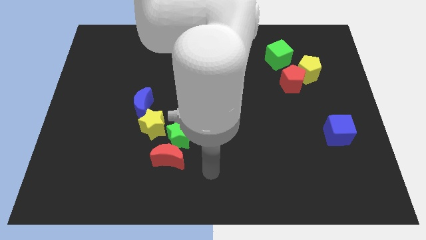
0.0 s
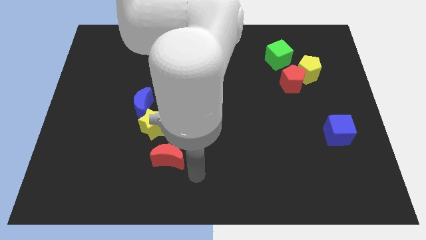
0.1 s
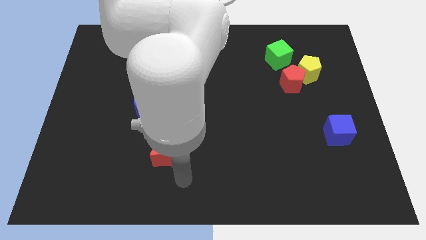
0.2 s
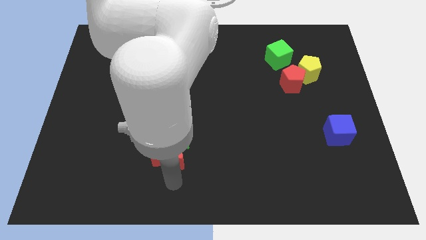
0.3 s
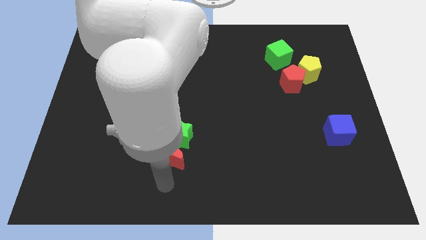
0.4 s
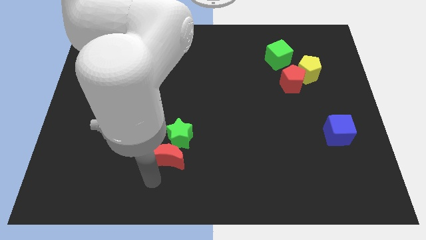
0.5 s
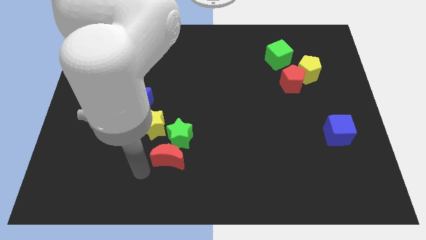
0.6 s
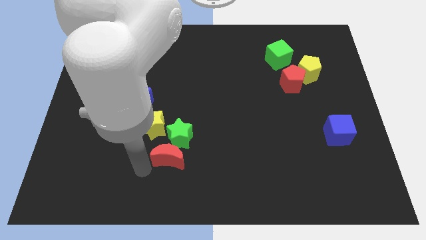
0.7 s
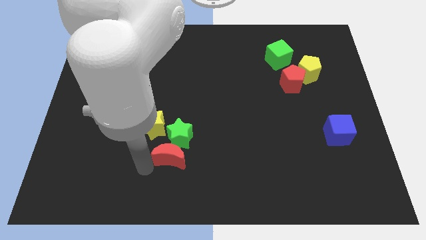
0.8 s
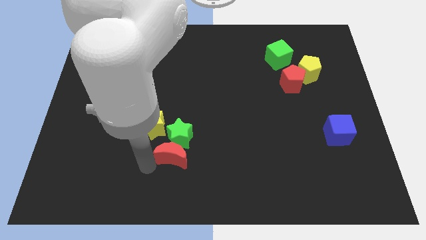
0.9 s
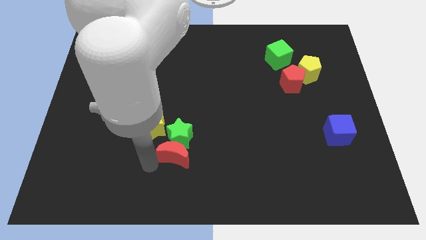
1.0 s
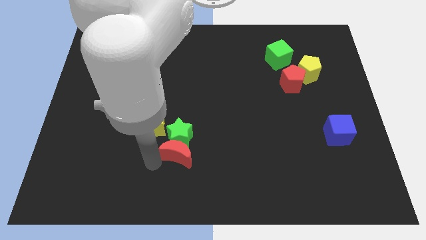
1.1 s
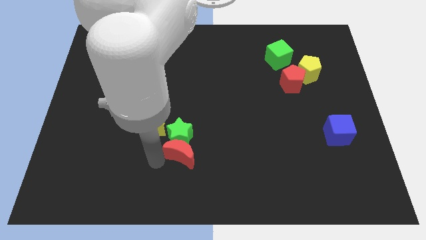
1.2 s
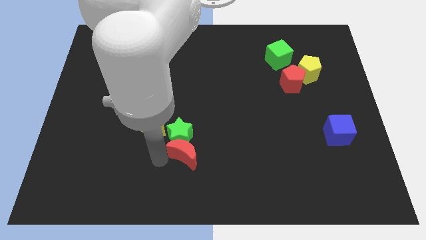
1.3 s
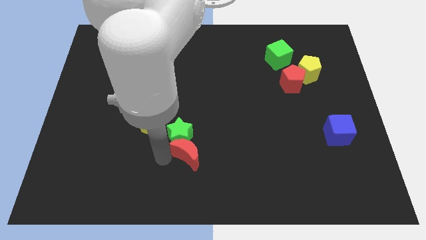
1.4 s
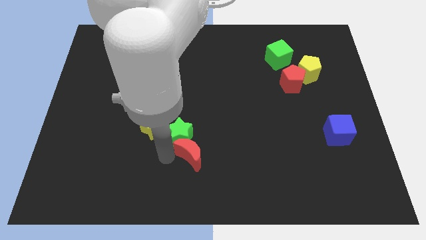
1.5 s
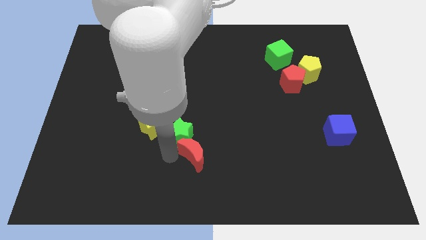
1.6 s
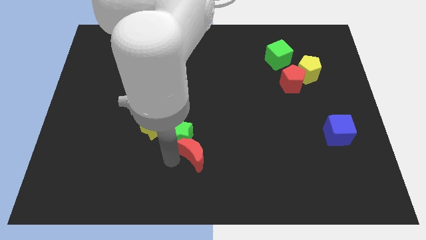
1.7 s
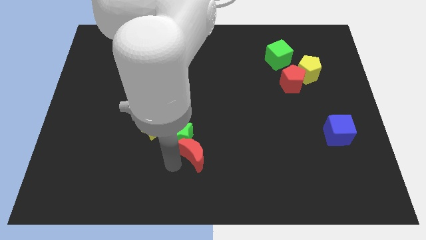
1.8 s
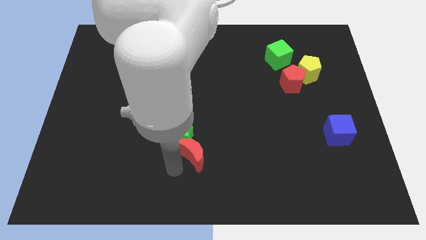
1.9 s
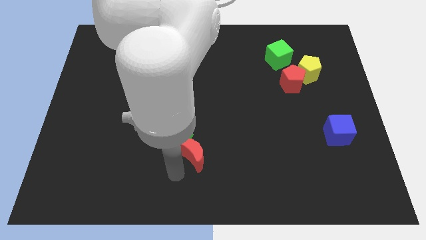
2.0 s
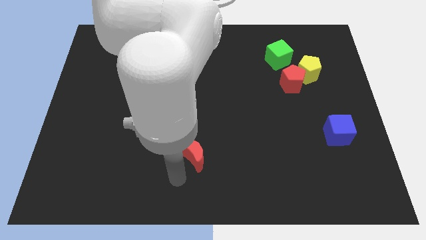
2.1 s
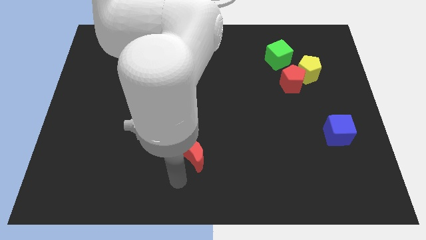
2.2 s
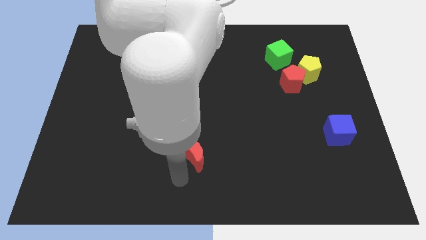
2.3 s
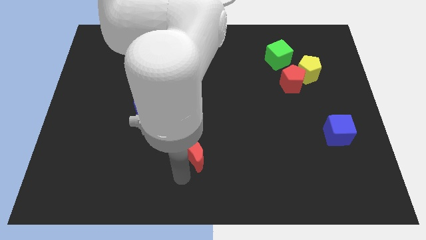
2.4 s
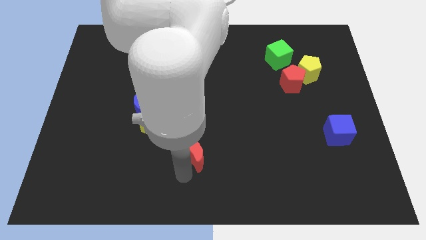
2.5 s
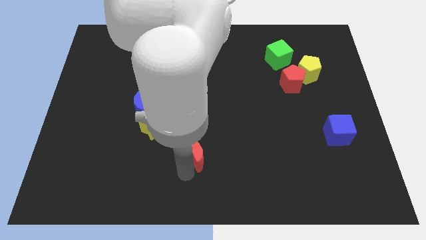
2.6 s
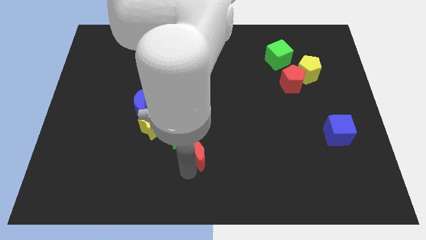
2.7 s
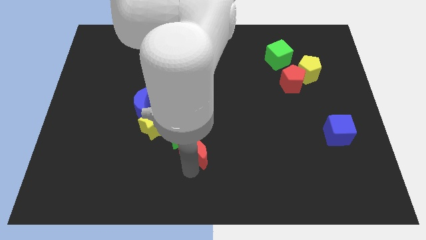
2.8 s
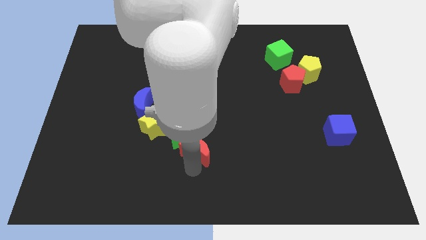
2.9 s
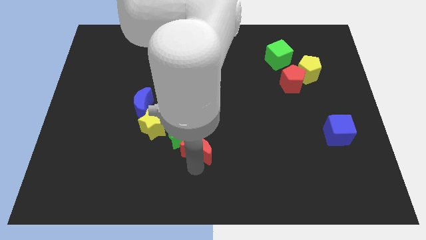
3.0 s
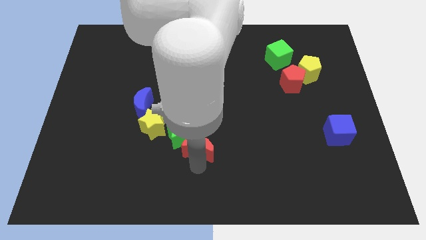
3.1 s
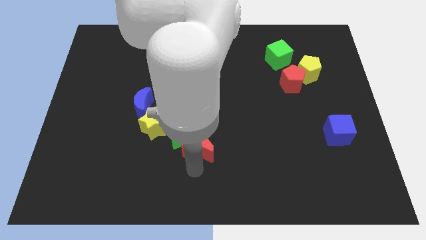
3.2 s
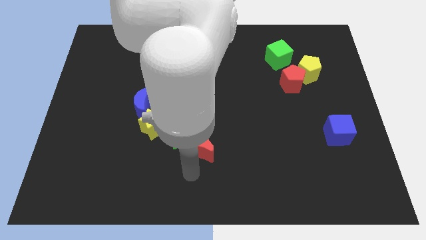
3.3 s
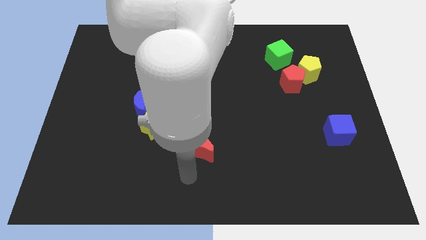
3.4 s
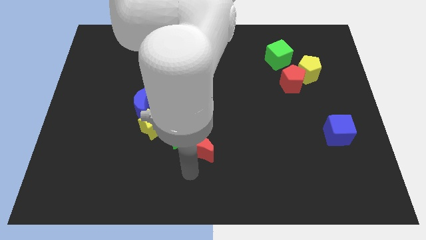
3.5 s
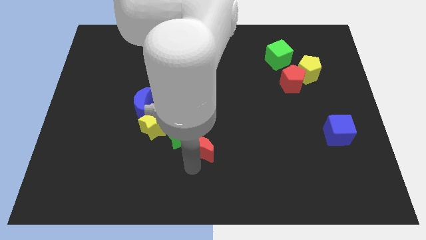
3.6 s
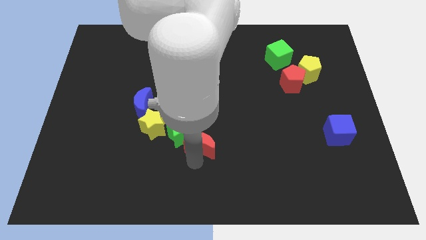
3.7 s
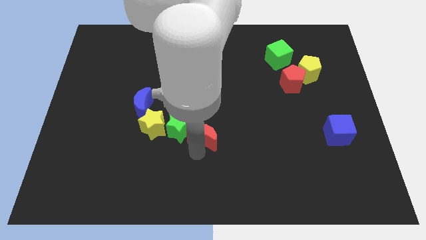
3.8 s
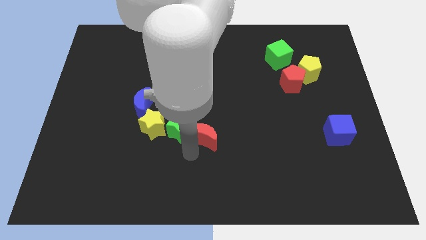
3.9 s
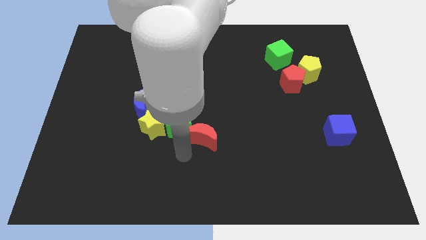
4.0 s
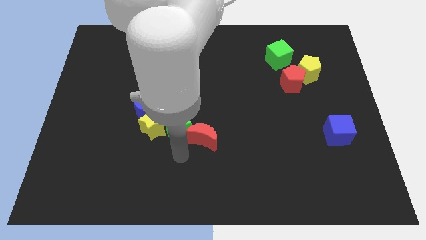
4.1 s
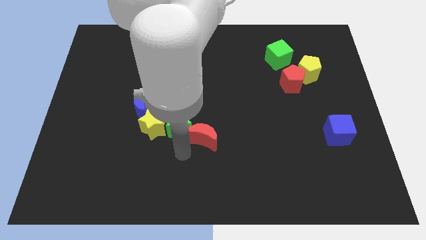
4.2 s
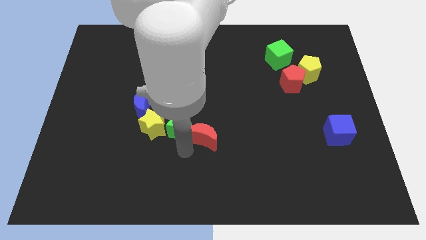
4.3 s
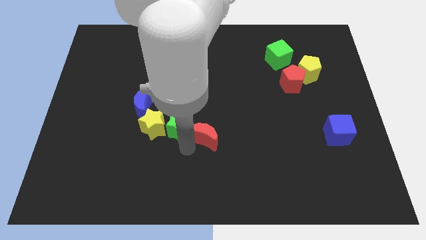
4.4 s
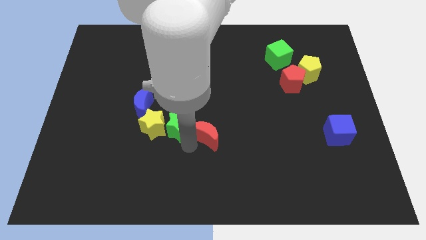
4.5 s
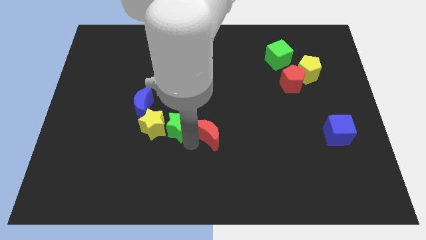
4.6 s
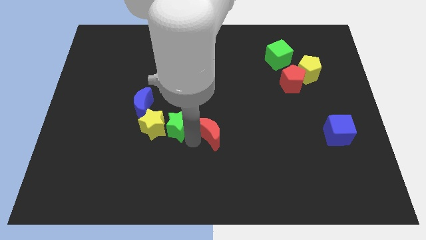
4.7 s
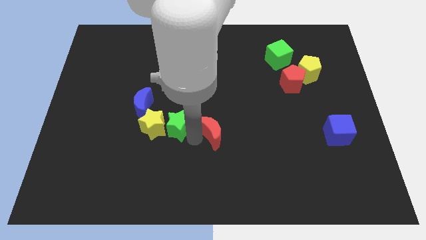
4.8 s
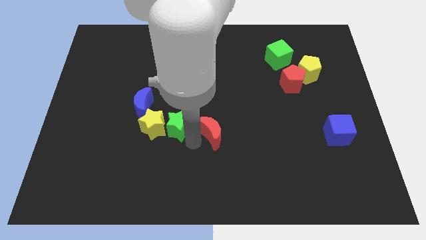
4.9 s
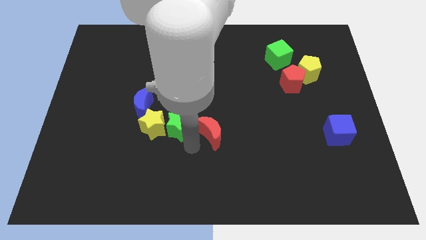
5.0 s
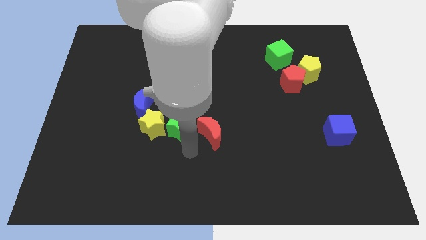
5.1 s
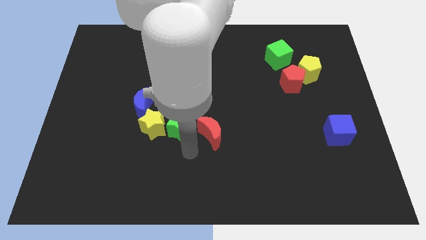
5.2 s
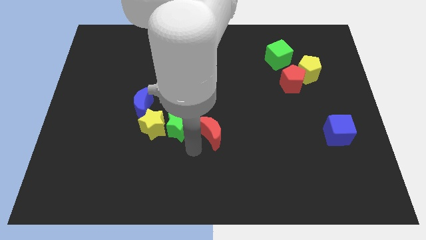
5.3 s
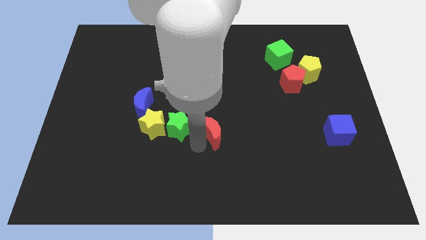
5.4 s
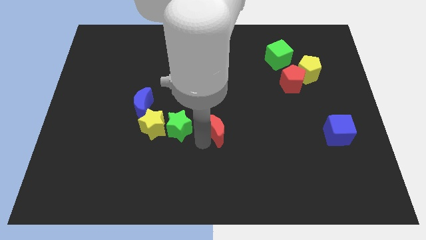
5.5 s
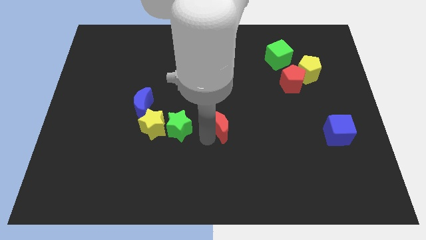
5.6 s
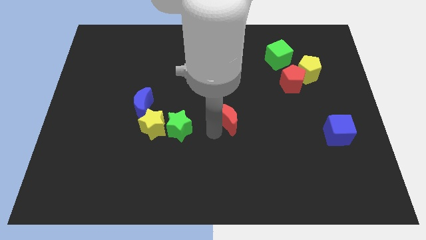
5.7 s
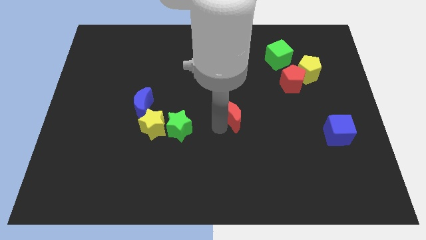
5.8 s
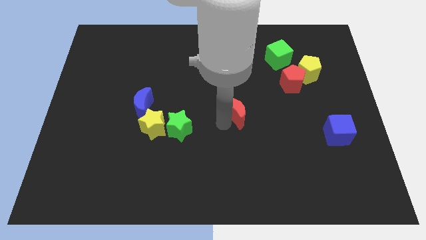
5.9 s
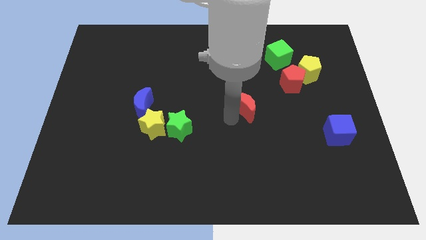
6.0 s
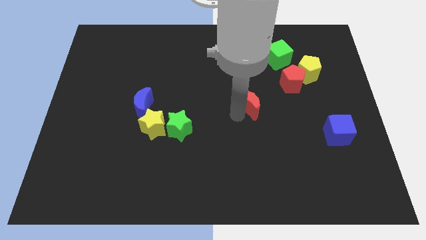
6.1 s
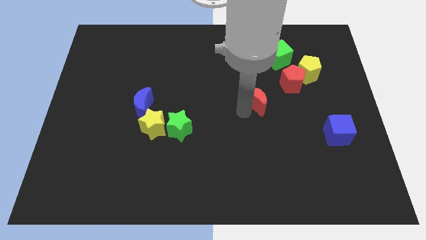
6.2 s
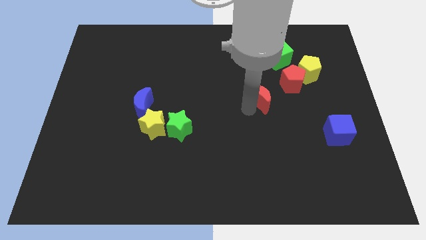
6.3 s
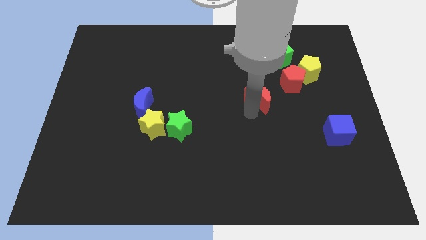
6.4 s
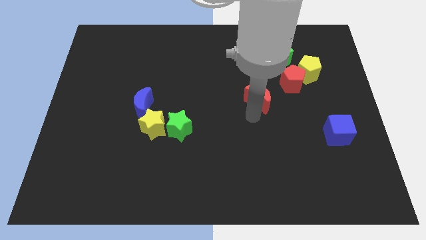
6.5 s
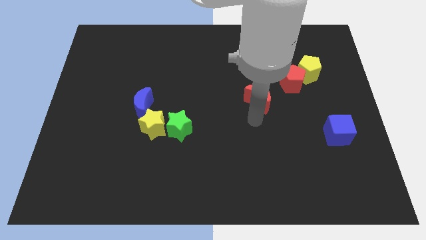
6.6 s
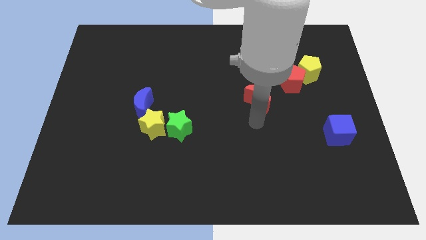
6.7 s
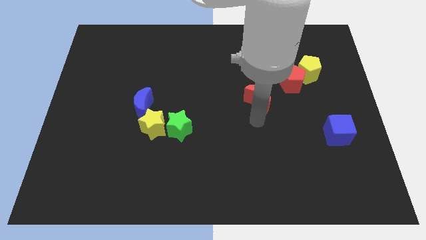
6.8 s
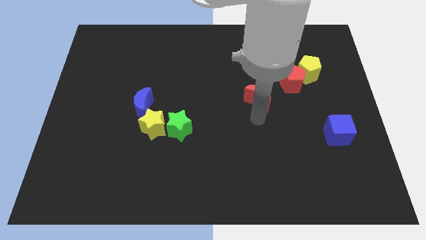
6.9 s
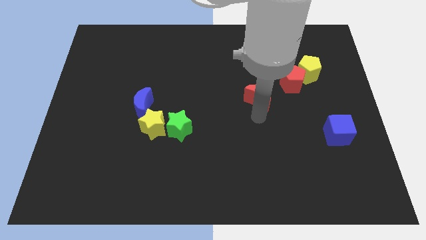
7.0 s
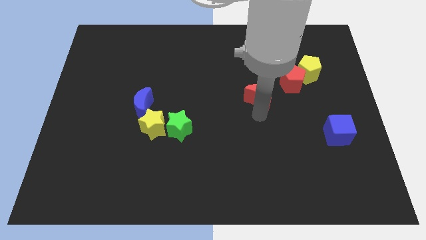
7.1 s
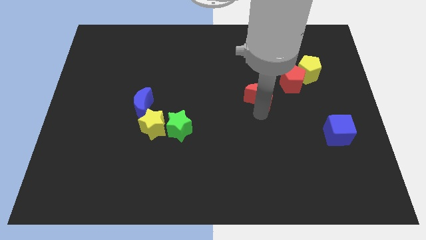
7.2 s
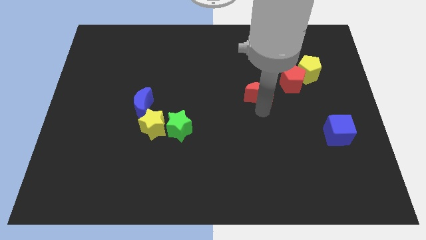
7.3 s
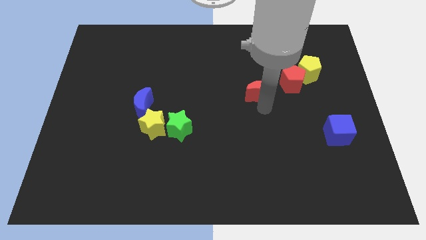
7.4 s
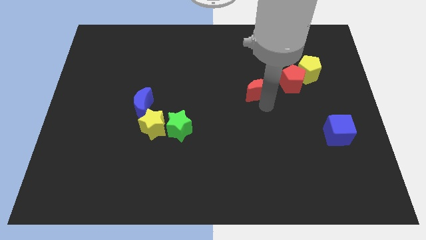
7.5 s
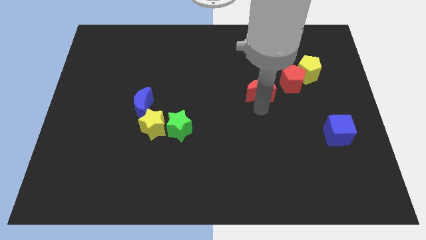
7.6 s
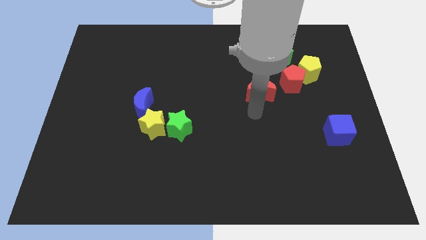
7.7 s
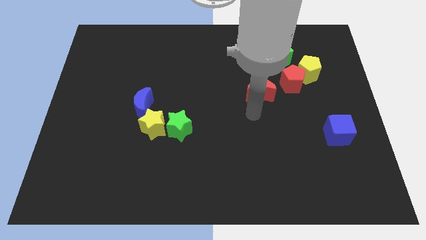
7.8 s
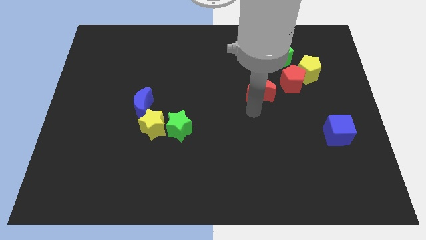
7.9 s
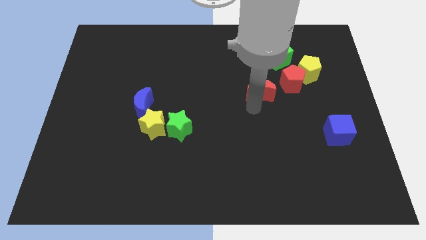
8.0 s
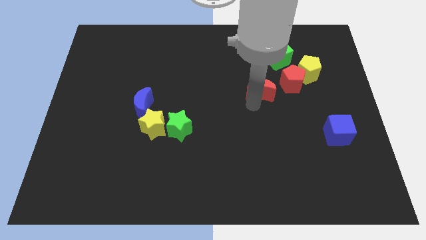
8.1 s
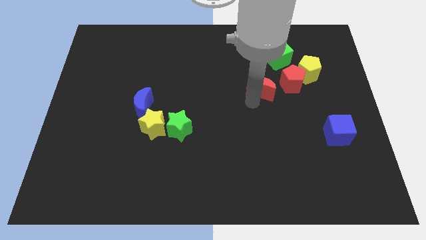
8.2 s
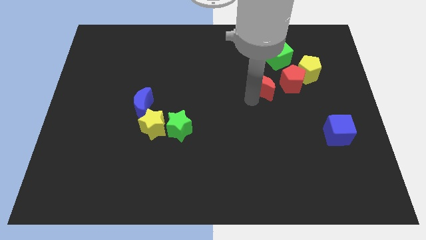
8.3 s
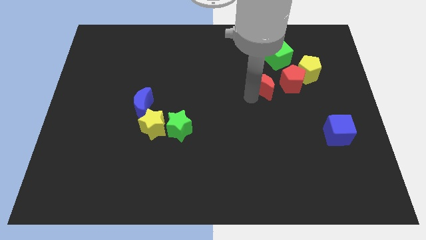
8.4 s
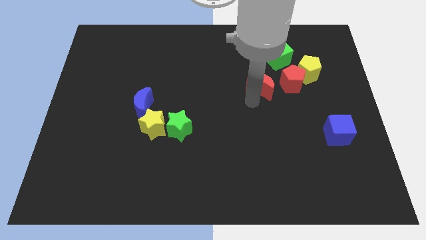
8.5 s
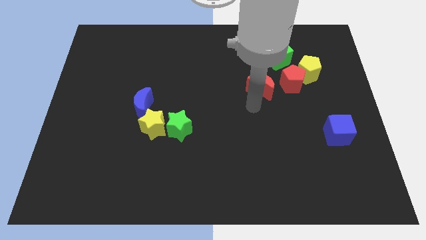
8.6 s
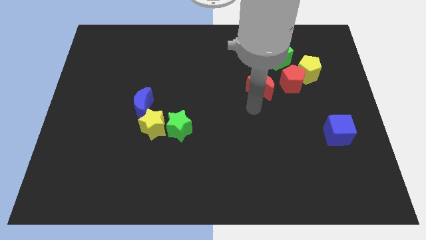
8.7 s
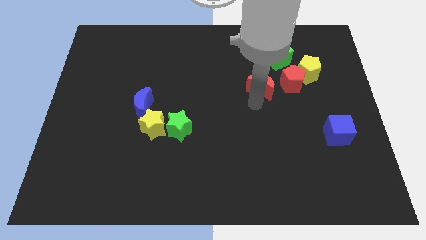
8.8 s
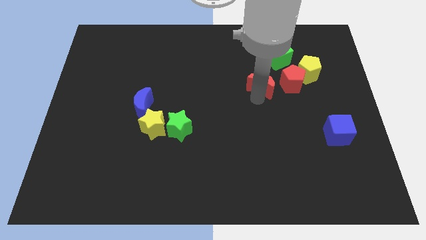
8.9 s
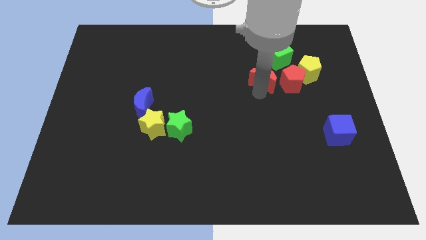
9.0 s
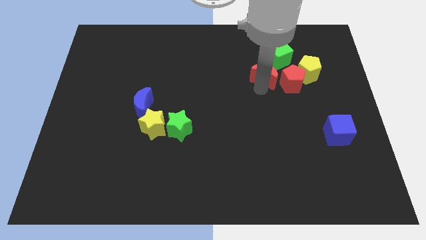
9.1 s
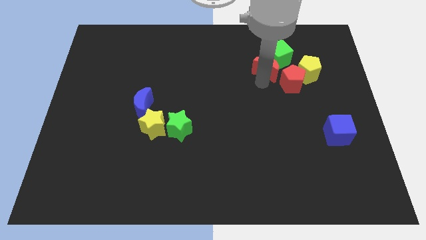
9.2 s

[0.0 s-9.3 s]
slide the red moon to the green cube
